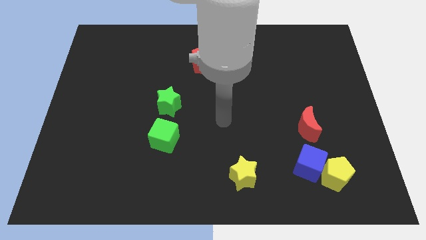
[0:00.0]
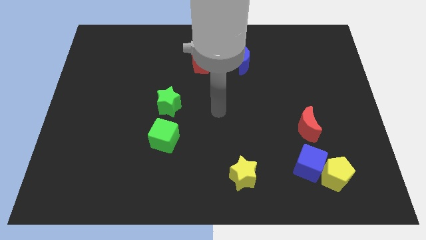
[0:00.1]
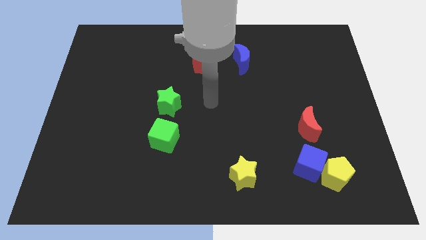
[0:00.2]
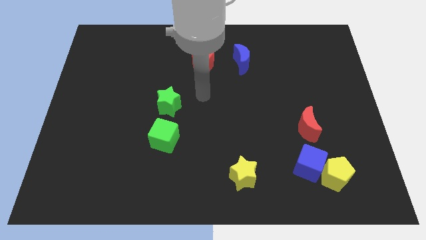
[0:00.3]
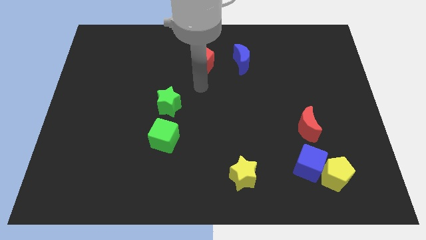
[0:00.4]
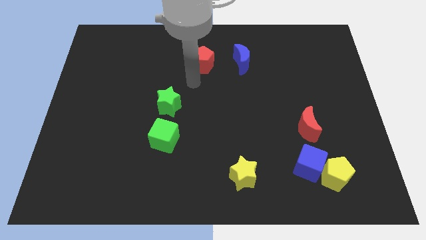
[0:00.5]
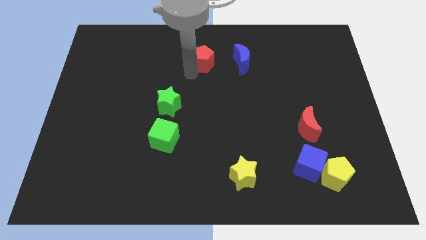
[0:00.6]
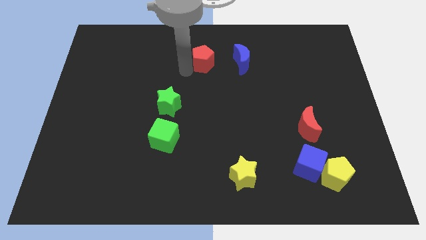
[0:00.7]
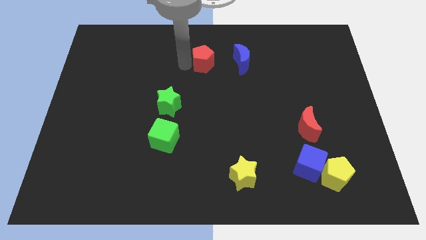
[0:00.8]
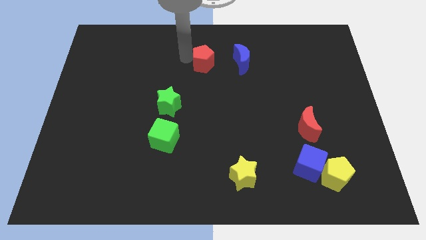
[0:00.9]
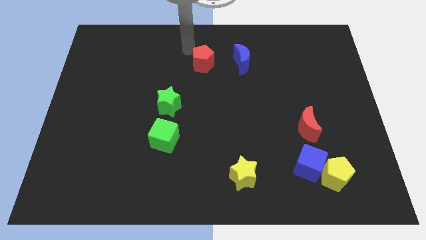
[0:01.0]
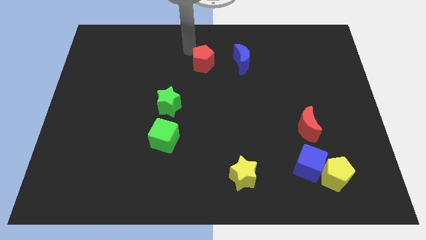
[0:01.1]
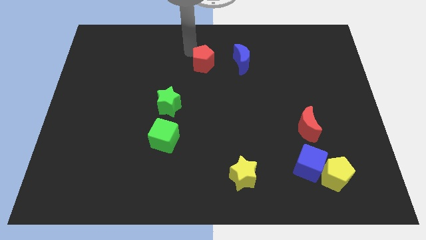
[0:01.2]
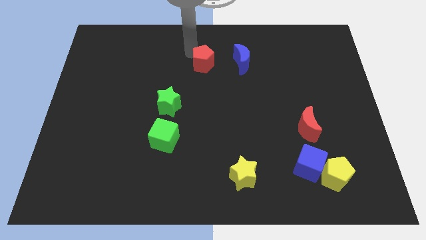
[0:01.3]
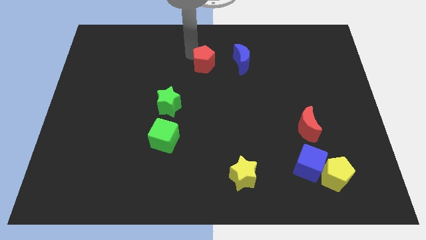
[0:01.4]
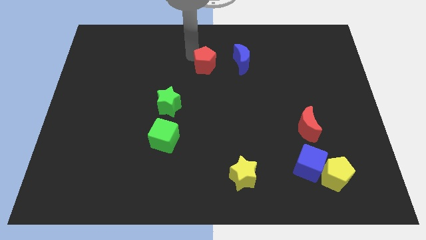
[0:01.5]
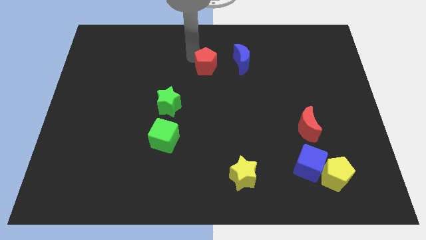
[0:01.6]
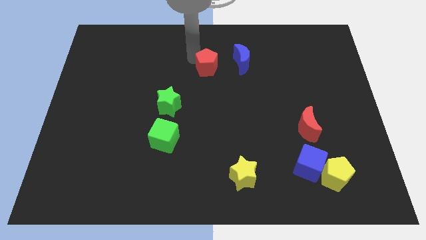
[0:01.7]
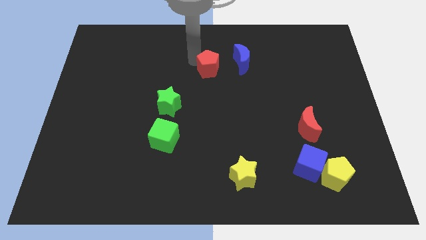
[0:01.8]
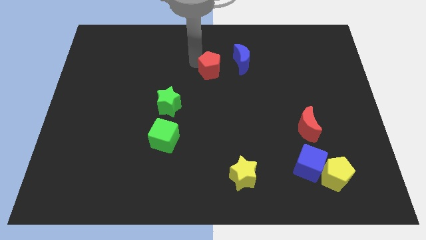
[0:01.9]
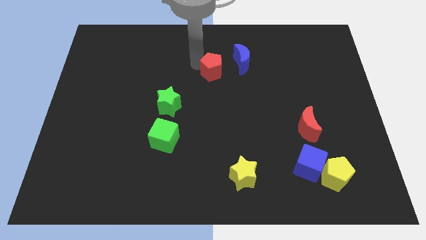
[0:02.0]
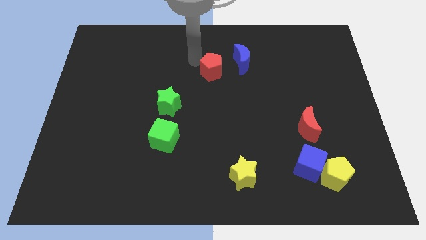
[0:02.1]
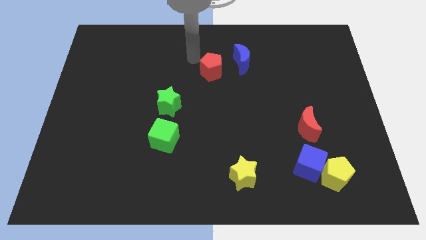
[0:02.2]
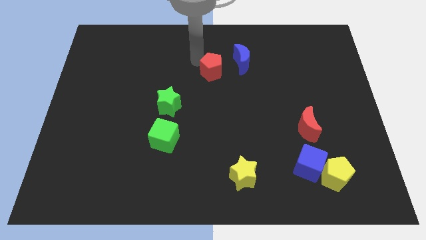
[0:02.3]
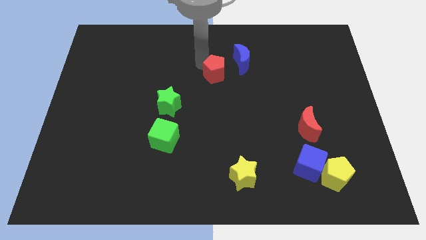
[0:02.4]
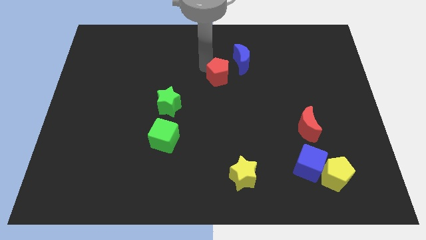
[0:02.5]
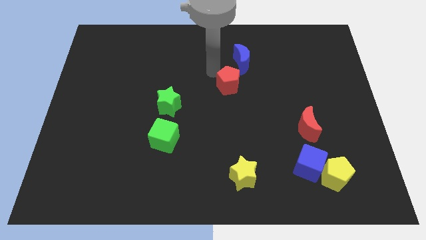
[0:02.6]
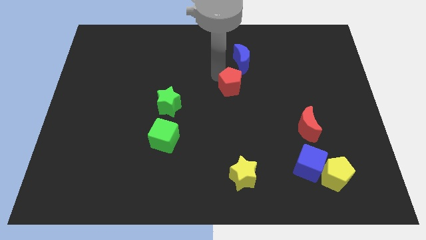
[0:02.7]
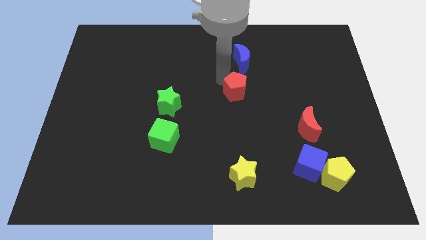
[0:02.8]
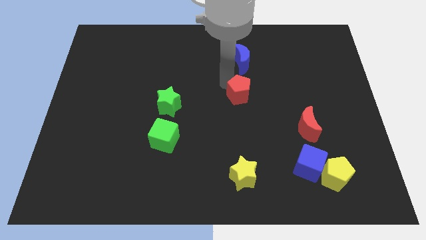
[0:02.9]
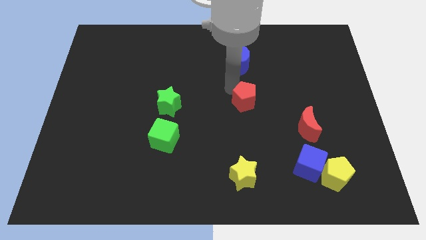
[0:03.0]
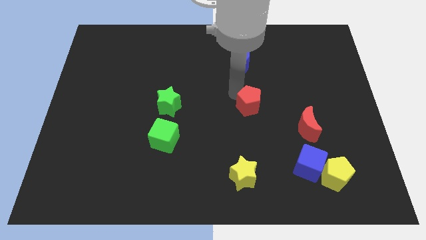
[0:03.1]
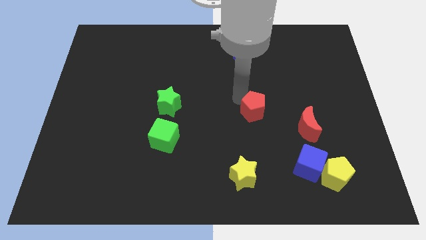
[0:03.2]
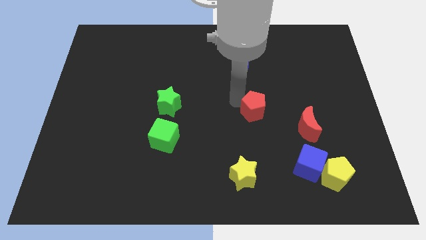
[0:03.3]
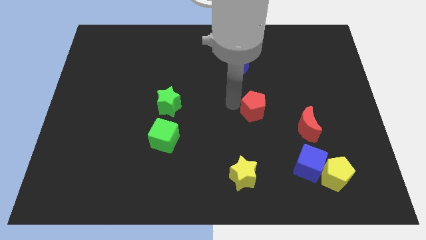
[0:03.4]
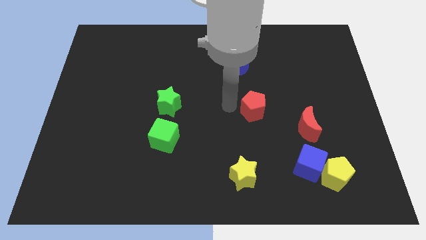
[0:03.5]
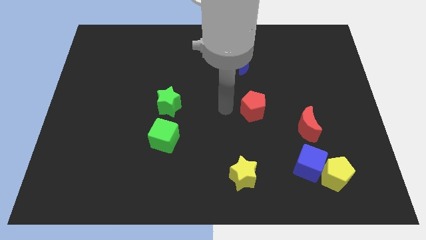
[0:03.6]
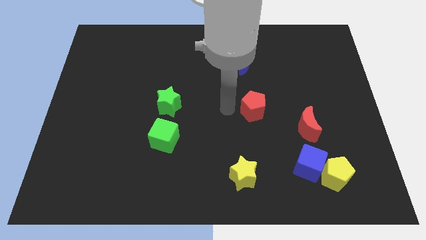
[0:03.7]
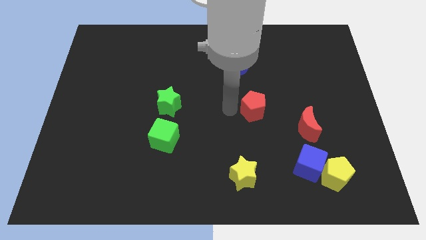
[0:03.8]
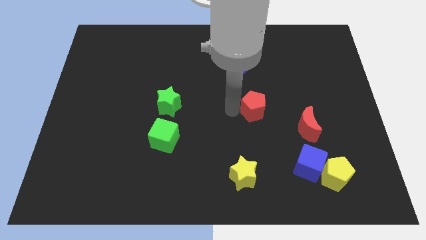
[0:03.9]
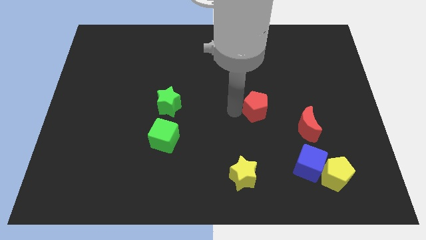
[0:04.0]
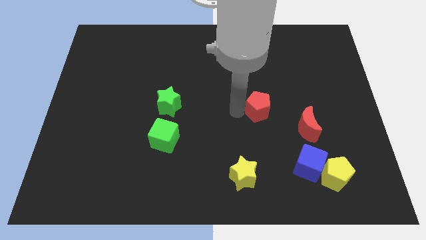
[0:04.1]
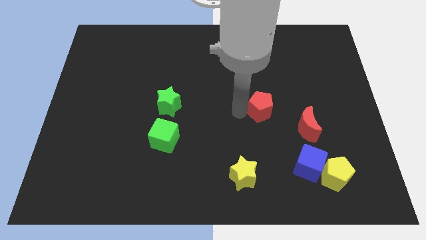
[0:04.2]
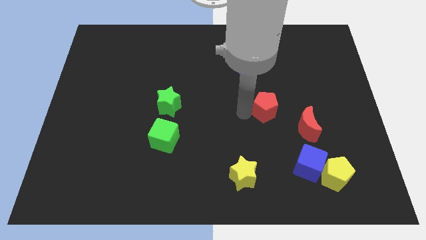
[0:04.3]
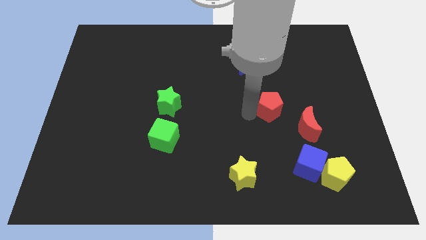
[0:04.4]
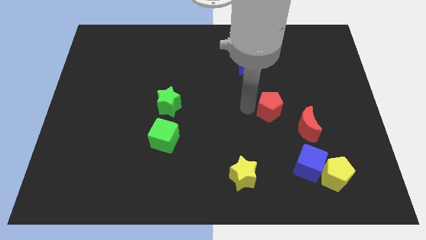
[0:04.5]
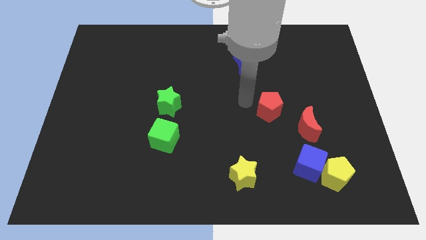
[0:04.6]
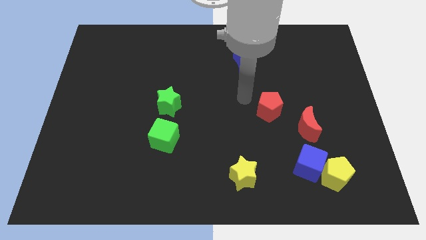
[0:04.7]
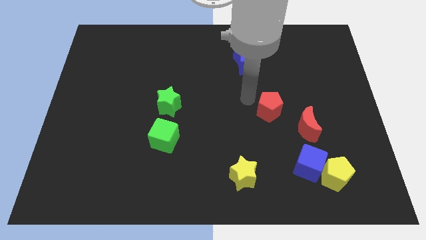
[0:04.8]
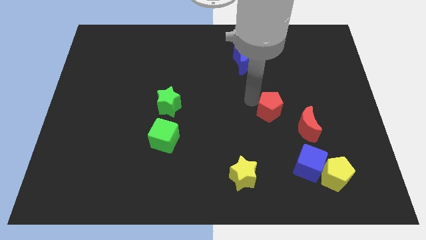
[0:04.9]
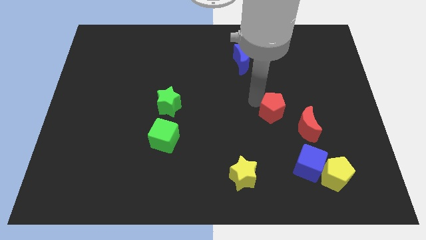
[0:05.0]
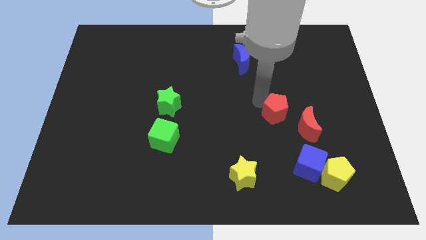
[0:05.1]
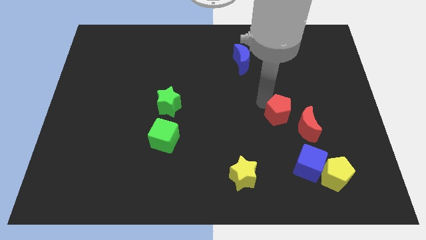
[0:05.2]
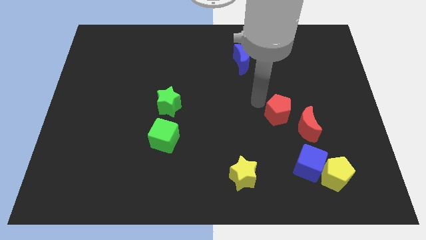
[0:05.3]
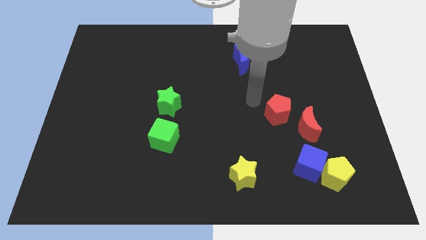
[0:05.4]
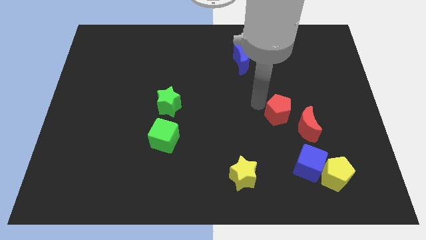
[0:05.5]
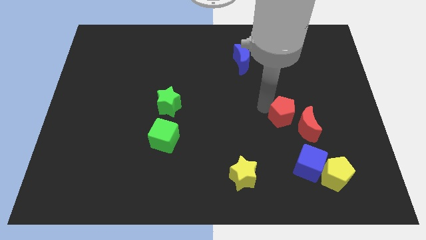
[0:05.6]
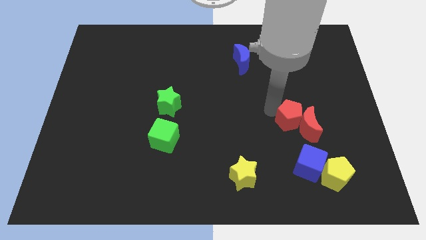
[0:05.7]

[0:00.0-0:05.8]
push the red pentagon next to the red moon

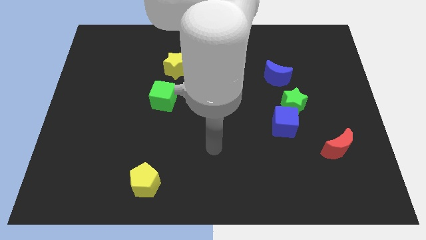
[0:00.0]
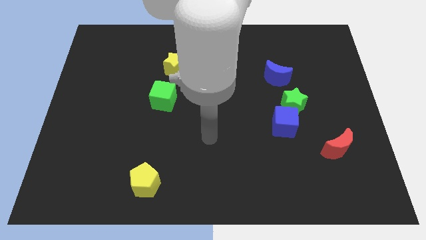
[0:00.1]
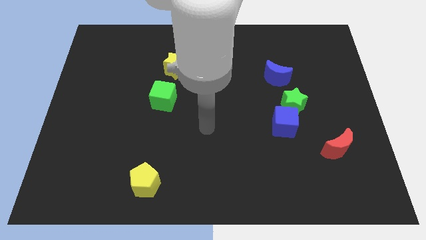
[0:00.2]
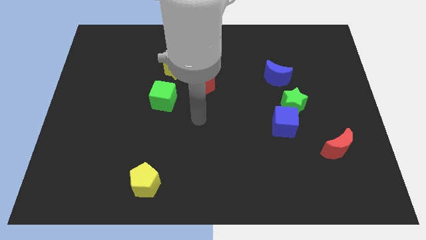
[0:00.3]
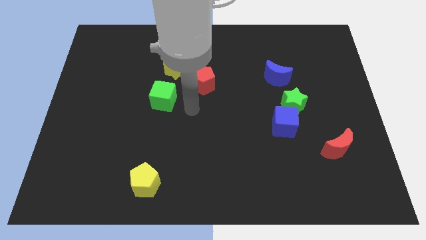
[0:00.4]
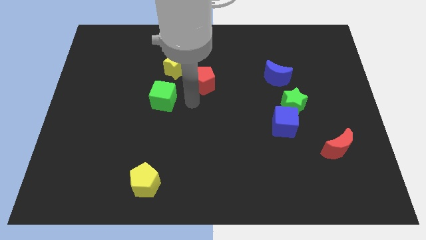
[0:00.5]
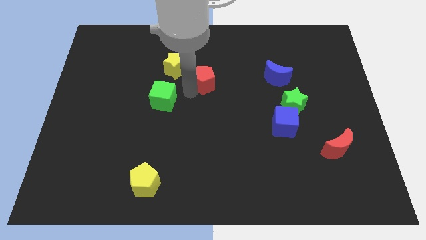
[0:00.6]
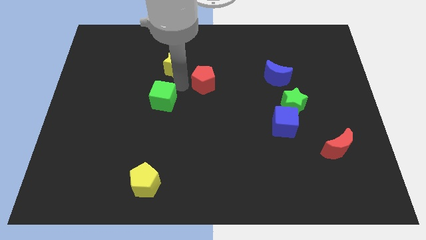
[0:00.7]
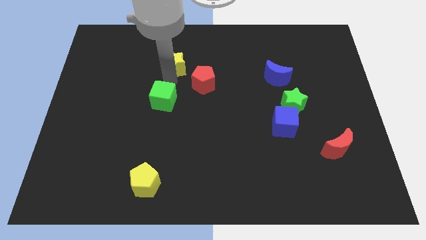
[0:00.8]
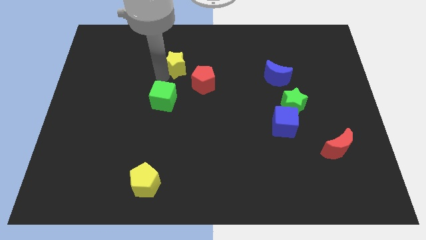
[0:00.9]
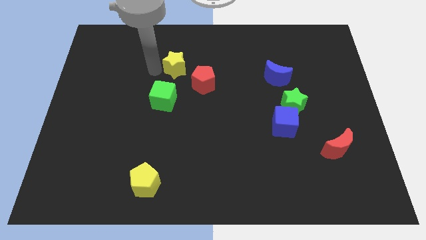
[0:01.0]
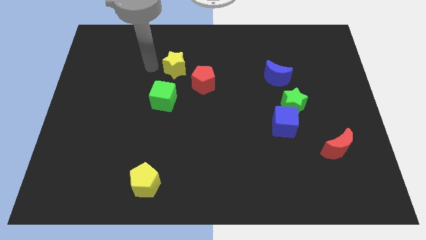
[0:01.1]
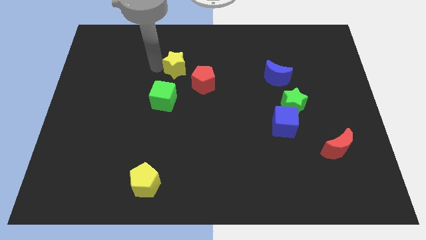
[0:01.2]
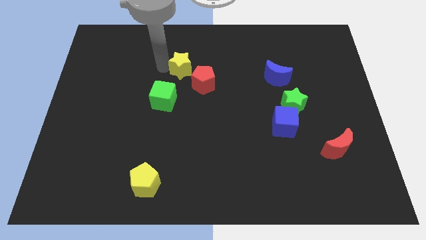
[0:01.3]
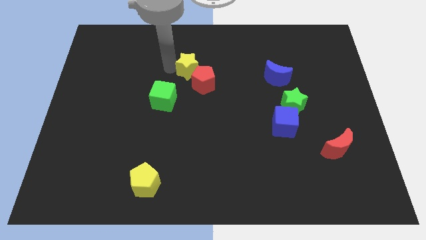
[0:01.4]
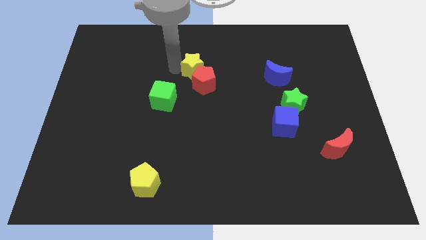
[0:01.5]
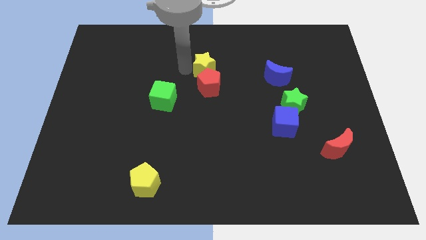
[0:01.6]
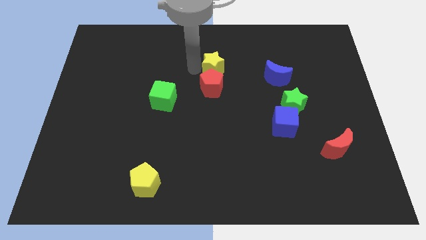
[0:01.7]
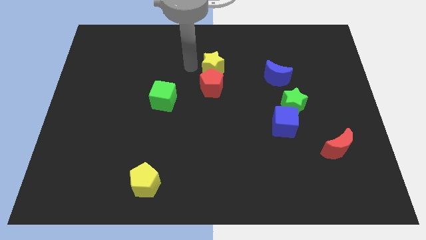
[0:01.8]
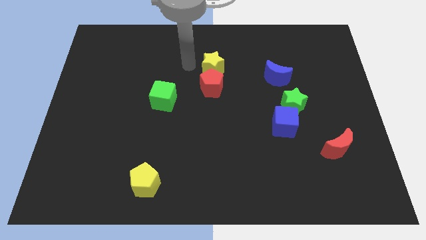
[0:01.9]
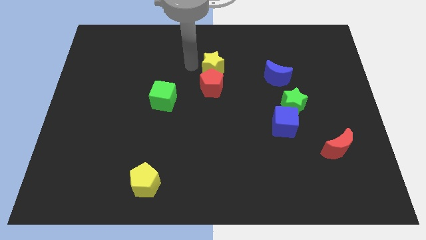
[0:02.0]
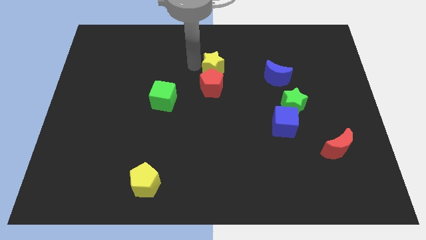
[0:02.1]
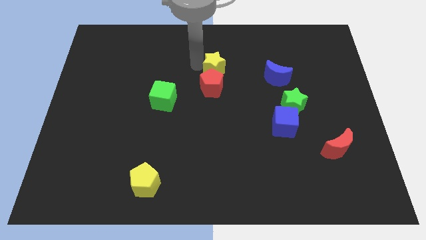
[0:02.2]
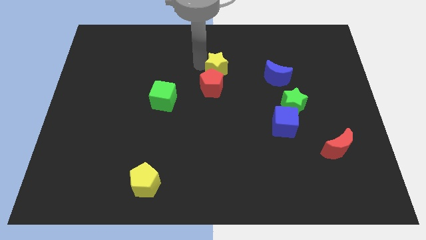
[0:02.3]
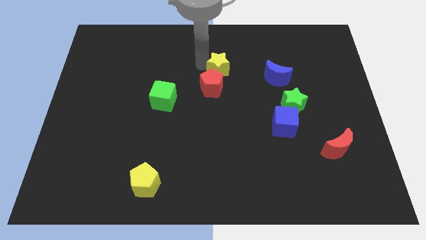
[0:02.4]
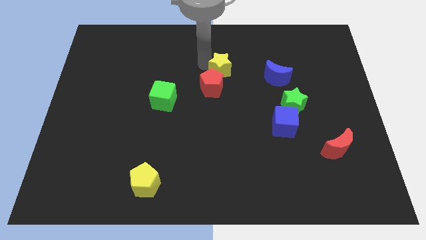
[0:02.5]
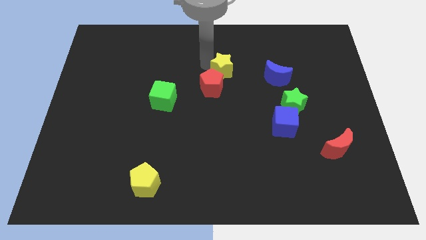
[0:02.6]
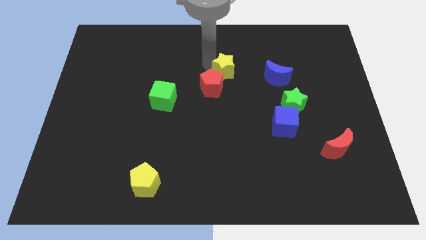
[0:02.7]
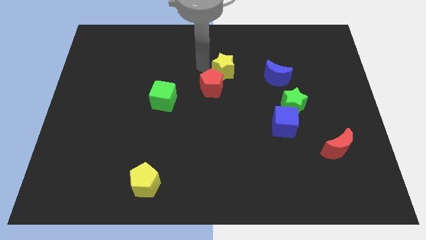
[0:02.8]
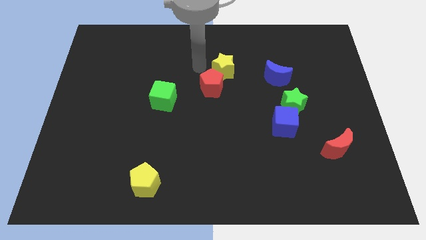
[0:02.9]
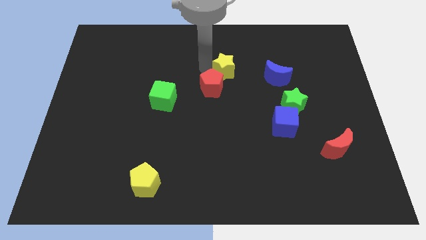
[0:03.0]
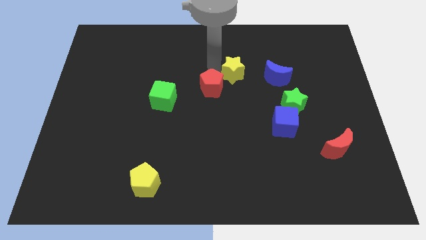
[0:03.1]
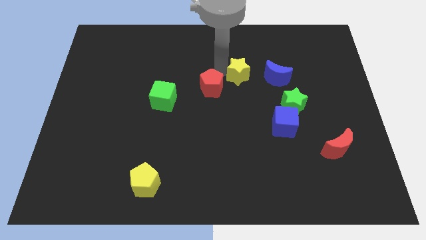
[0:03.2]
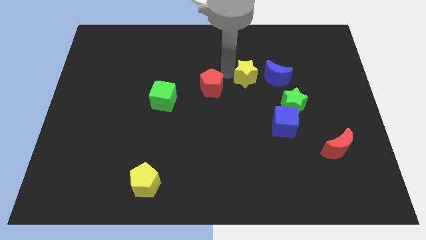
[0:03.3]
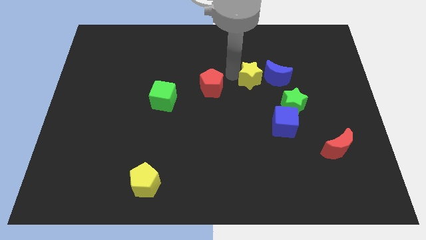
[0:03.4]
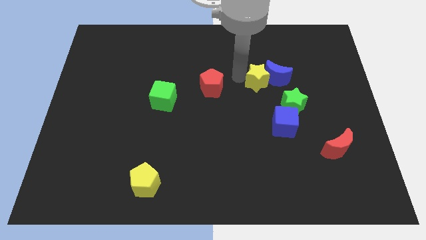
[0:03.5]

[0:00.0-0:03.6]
slide the yellow star next to the blue moon
